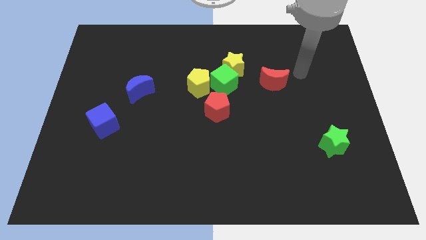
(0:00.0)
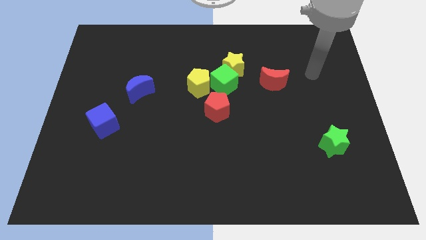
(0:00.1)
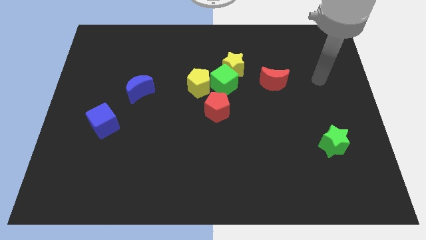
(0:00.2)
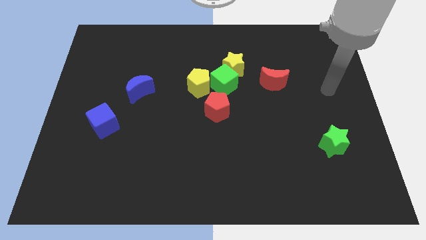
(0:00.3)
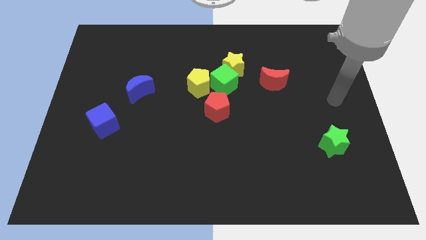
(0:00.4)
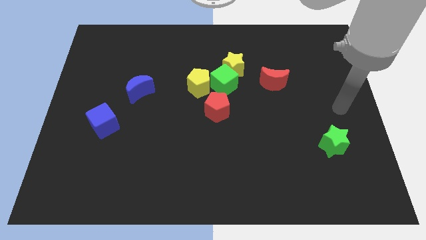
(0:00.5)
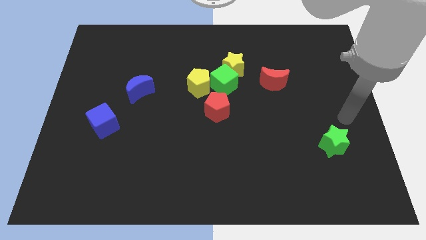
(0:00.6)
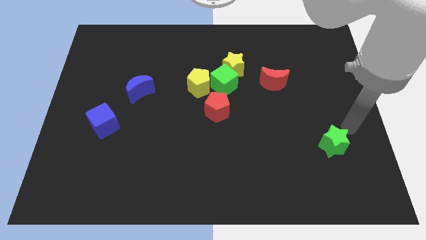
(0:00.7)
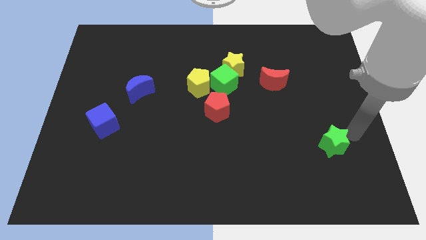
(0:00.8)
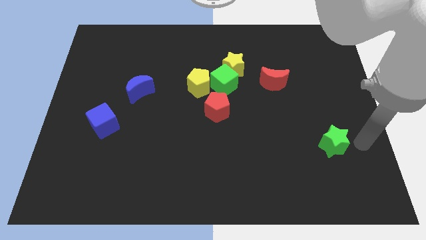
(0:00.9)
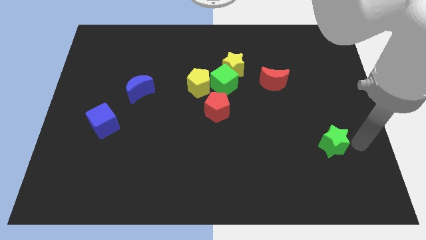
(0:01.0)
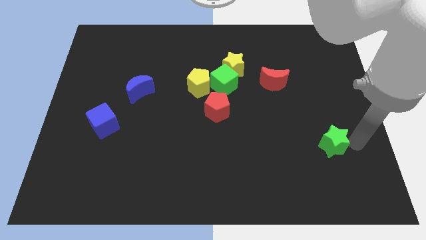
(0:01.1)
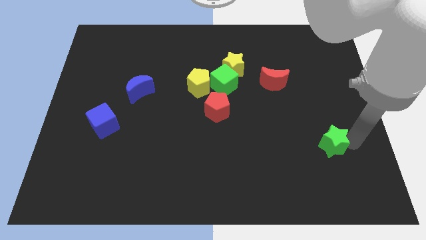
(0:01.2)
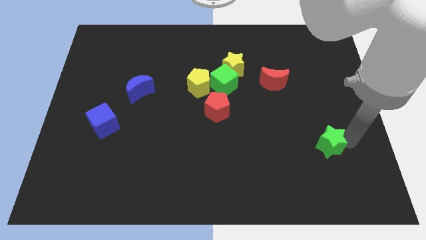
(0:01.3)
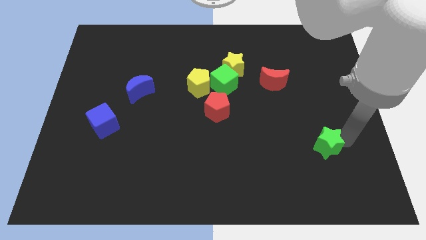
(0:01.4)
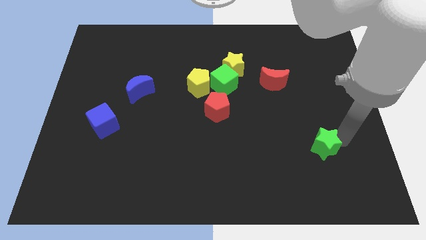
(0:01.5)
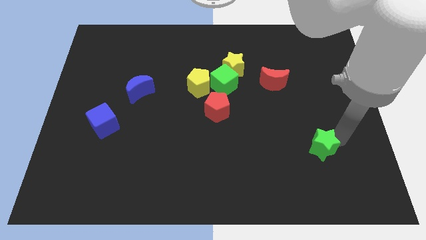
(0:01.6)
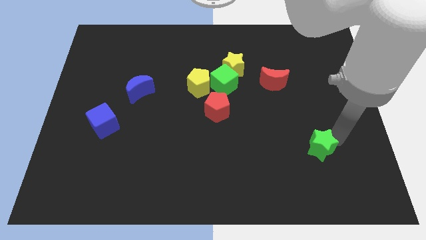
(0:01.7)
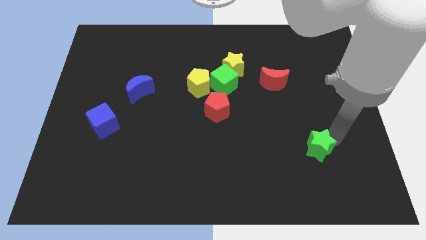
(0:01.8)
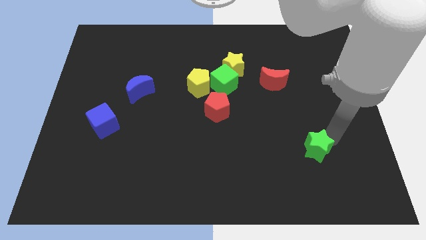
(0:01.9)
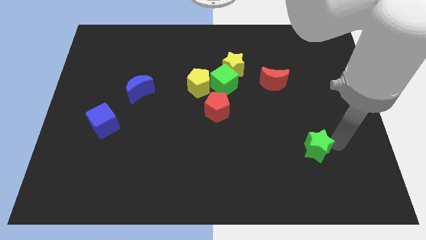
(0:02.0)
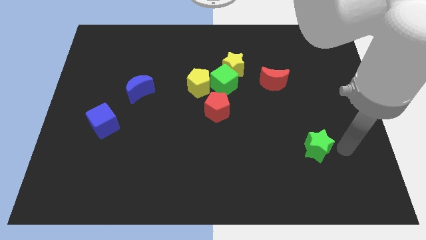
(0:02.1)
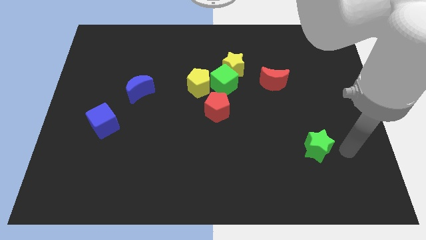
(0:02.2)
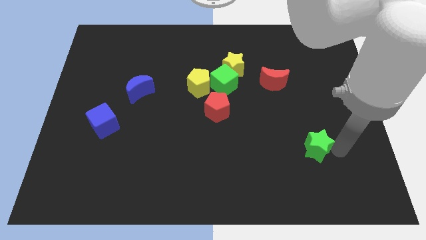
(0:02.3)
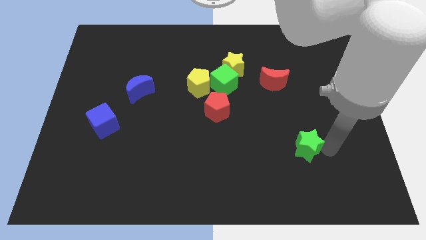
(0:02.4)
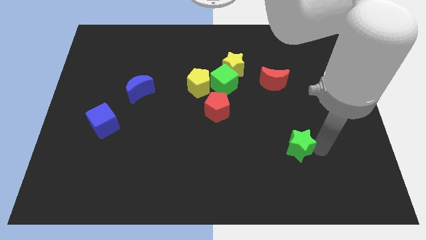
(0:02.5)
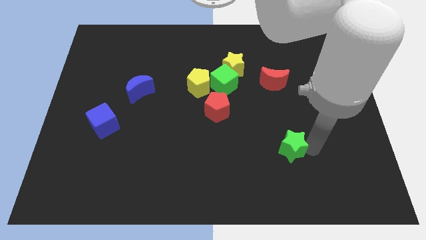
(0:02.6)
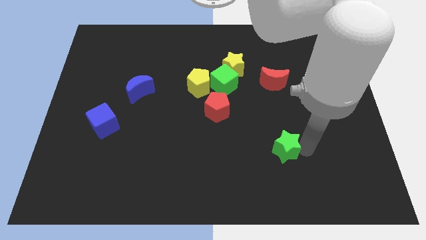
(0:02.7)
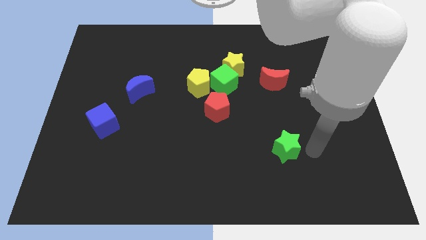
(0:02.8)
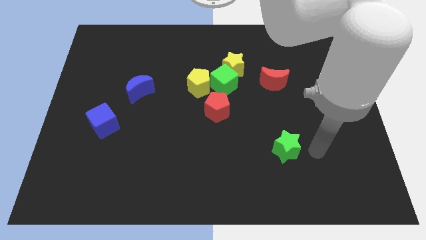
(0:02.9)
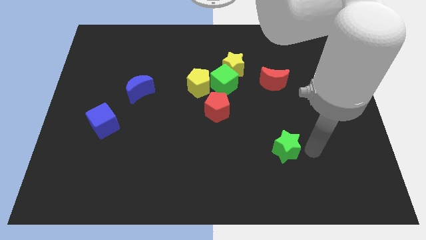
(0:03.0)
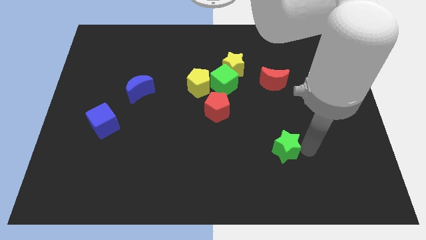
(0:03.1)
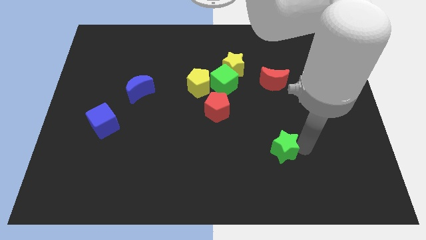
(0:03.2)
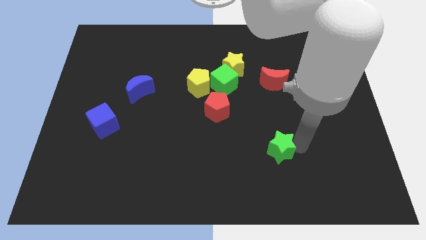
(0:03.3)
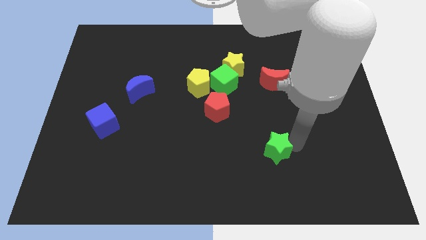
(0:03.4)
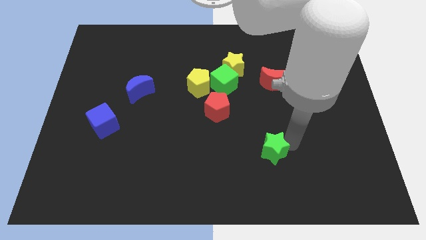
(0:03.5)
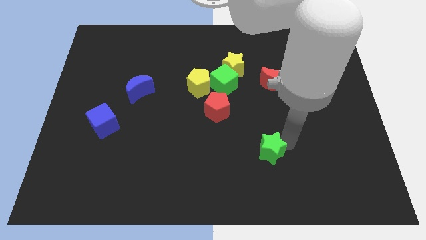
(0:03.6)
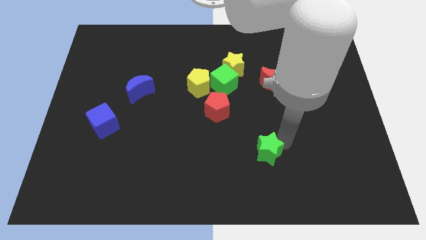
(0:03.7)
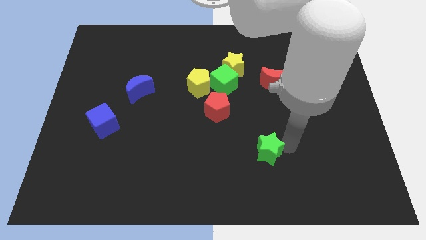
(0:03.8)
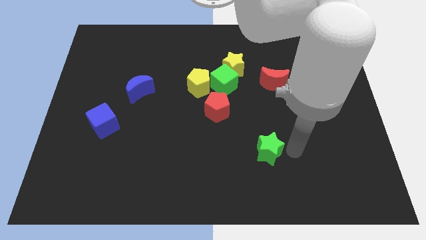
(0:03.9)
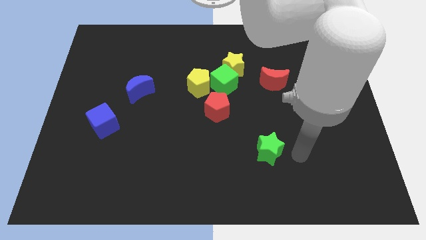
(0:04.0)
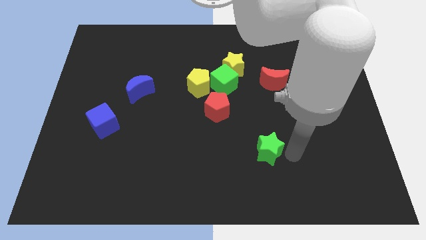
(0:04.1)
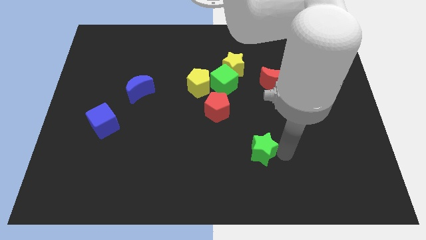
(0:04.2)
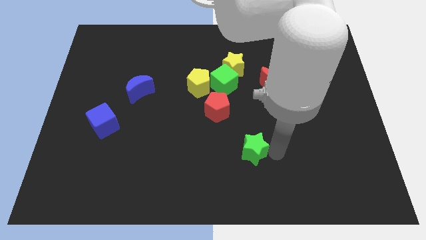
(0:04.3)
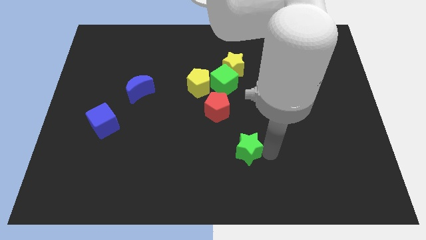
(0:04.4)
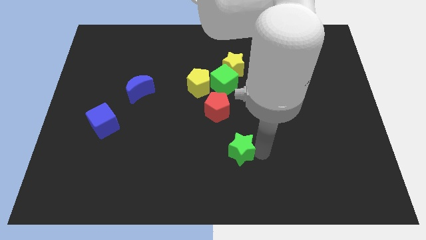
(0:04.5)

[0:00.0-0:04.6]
slide the green star left

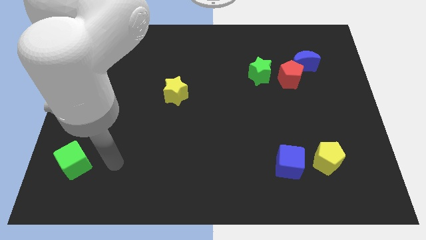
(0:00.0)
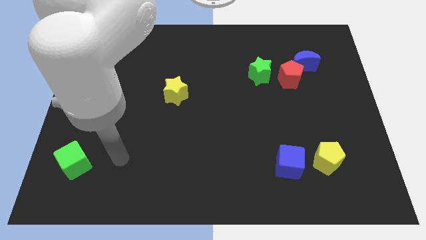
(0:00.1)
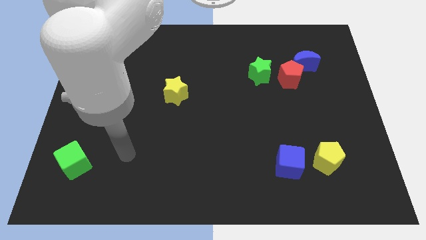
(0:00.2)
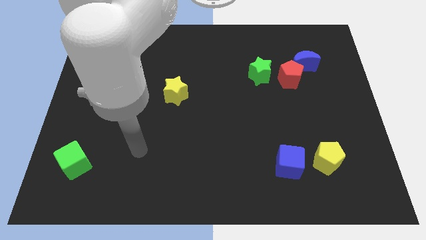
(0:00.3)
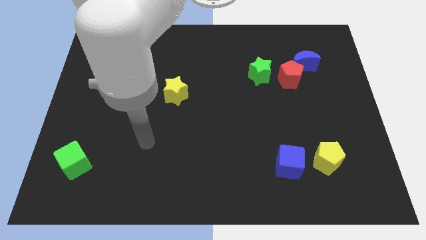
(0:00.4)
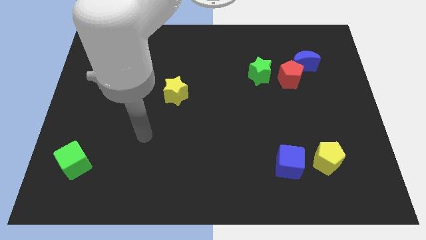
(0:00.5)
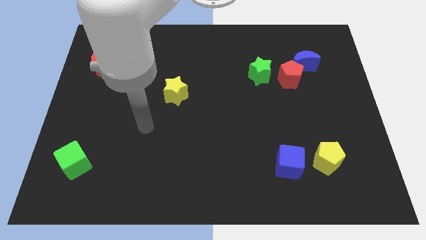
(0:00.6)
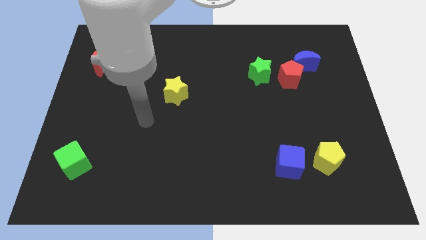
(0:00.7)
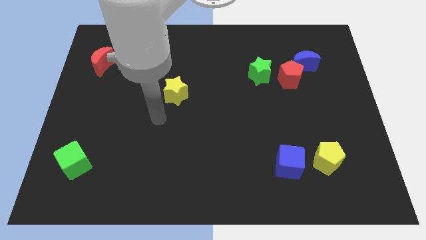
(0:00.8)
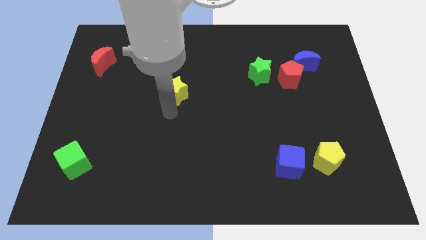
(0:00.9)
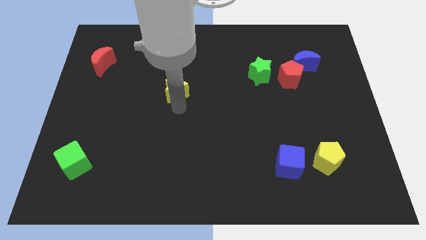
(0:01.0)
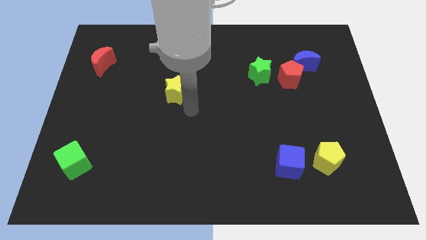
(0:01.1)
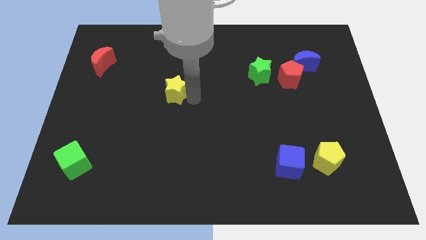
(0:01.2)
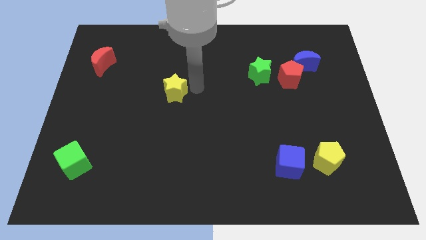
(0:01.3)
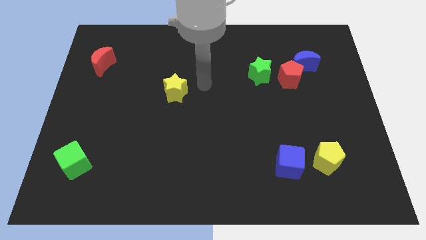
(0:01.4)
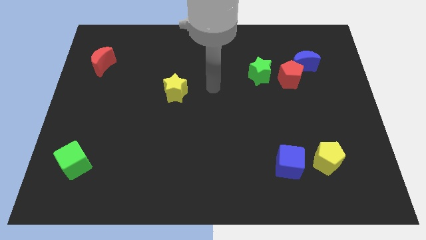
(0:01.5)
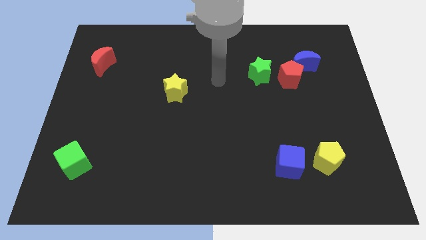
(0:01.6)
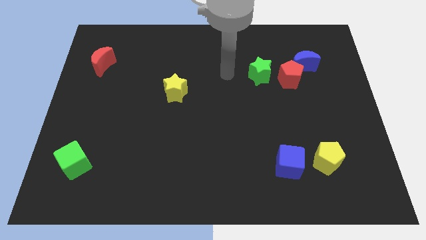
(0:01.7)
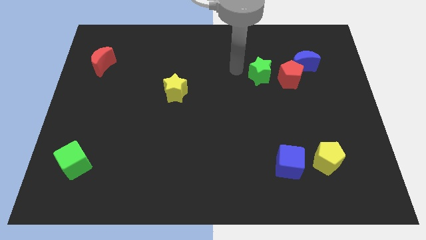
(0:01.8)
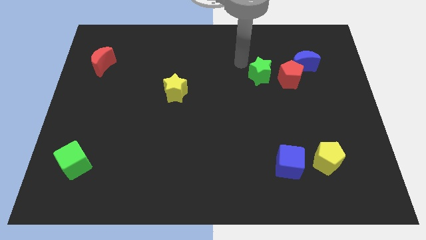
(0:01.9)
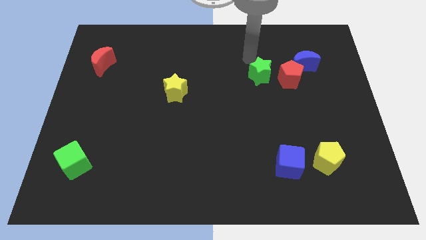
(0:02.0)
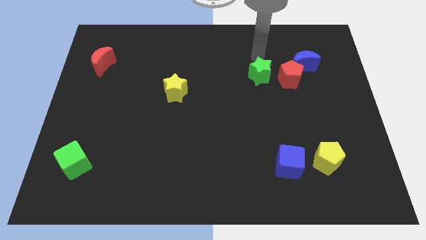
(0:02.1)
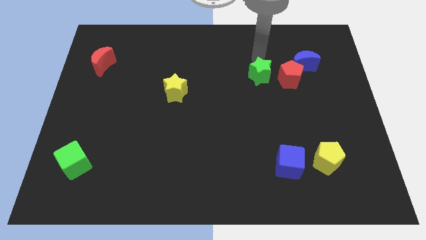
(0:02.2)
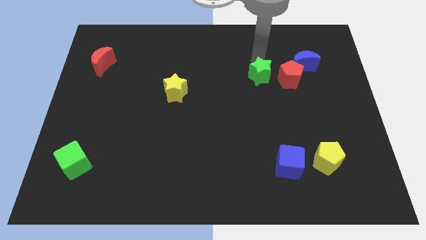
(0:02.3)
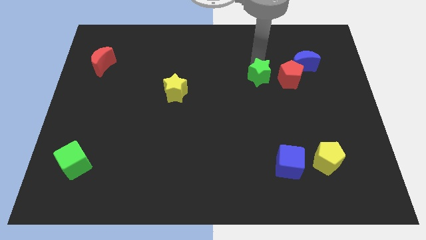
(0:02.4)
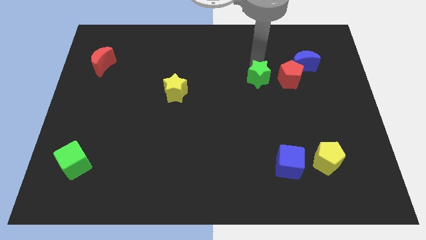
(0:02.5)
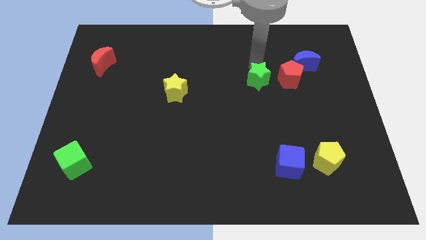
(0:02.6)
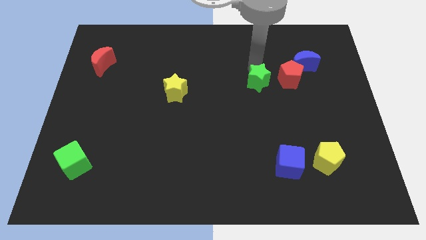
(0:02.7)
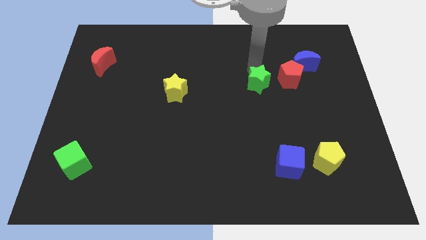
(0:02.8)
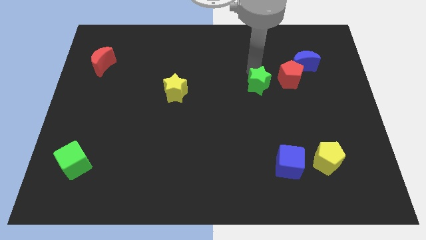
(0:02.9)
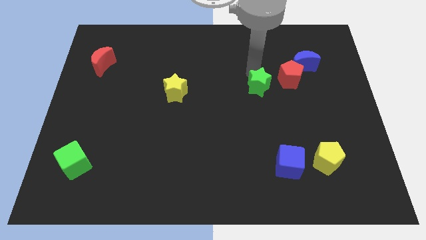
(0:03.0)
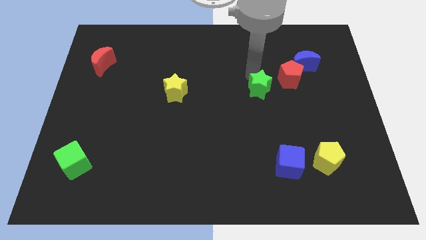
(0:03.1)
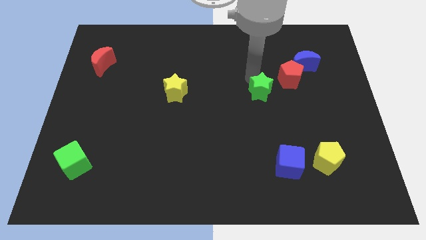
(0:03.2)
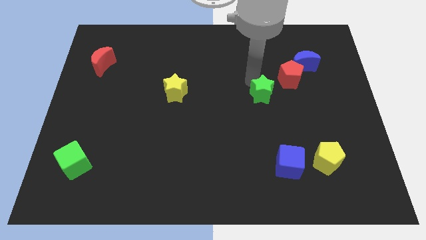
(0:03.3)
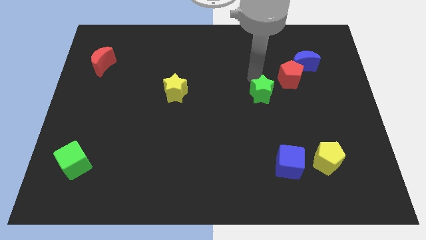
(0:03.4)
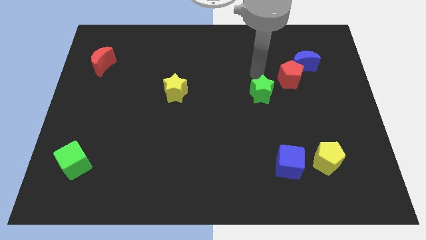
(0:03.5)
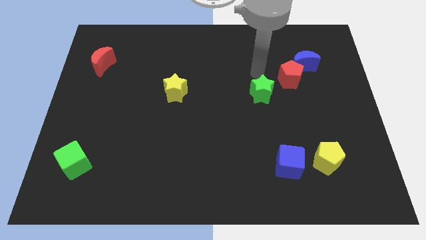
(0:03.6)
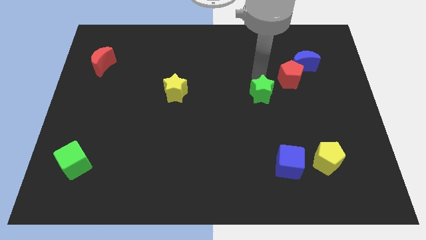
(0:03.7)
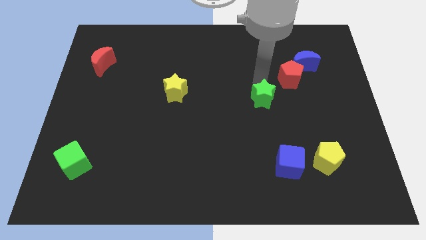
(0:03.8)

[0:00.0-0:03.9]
slide the green star down slightly
